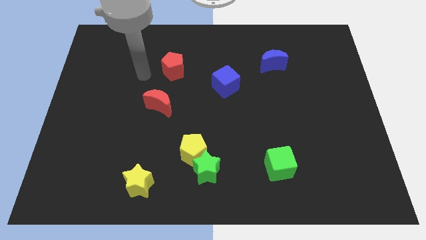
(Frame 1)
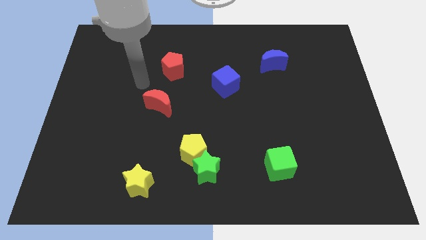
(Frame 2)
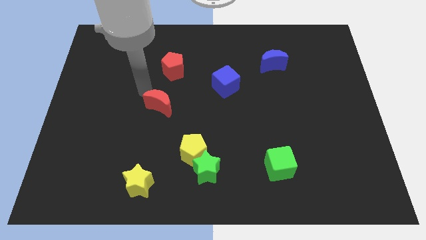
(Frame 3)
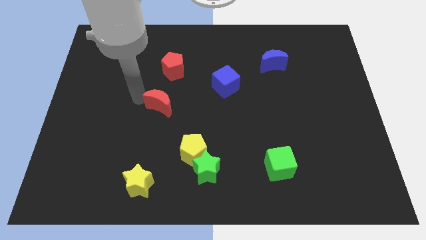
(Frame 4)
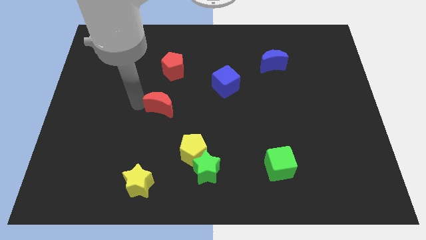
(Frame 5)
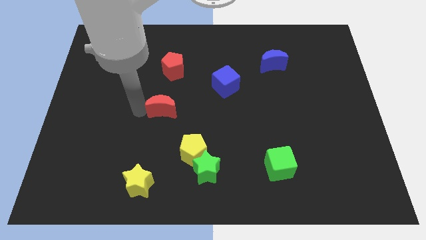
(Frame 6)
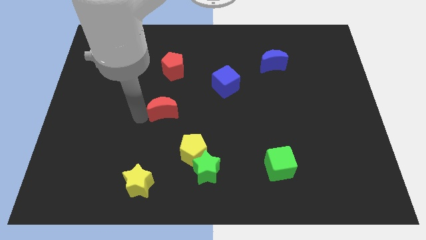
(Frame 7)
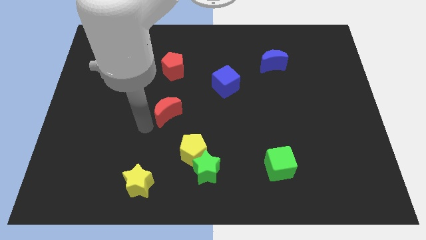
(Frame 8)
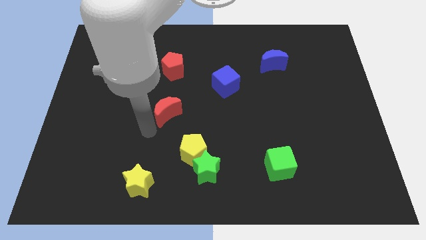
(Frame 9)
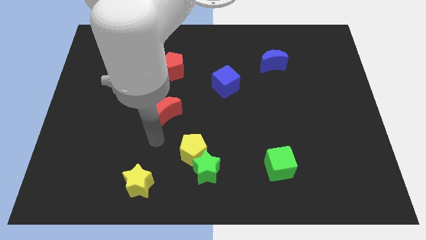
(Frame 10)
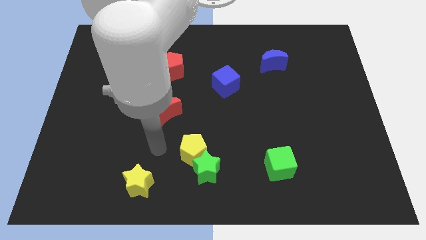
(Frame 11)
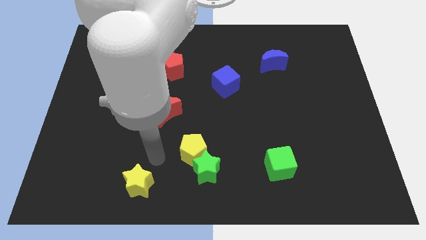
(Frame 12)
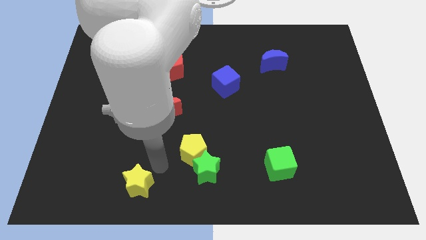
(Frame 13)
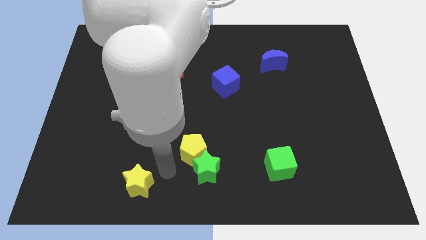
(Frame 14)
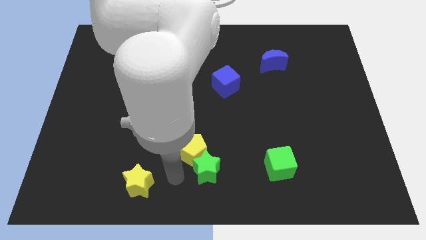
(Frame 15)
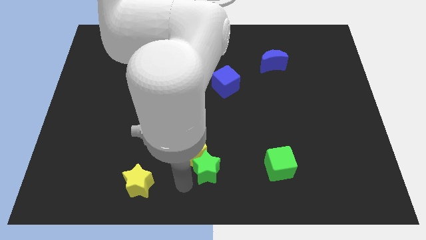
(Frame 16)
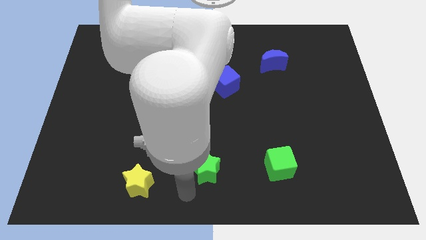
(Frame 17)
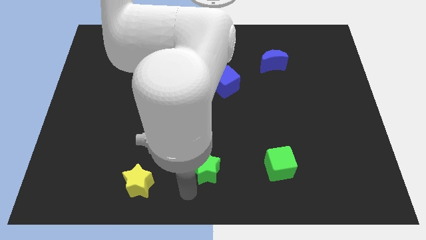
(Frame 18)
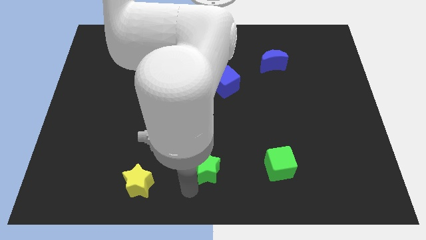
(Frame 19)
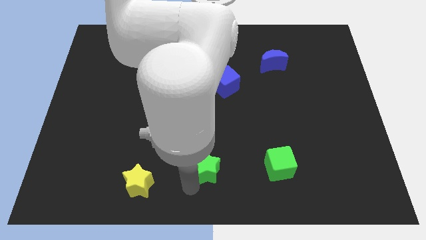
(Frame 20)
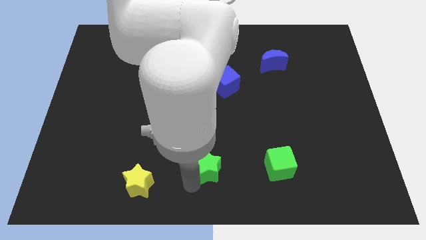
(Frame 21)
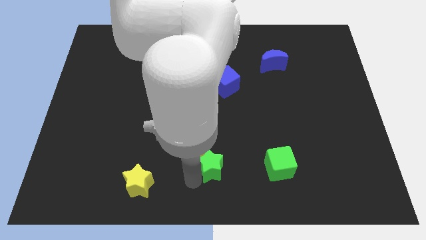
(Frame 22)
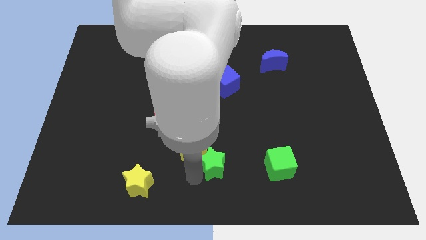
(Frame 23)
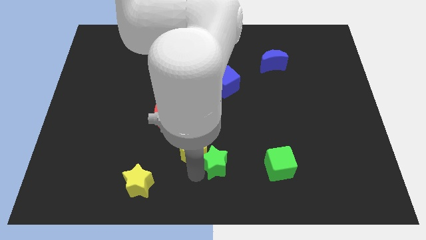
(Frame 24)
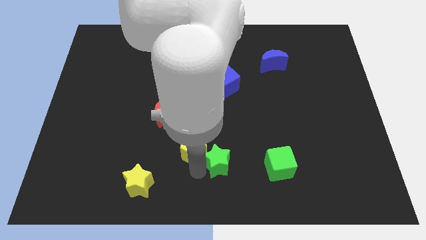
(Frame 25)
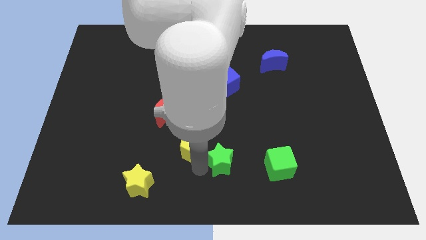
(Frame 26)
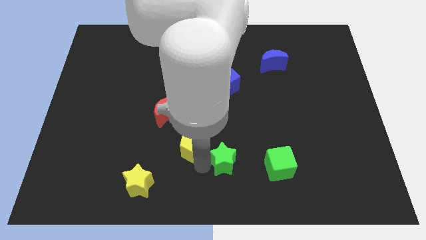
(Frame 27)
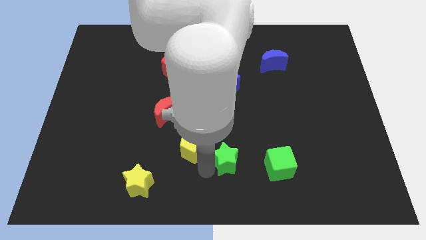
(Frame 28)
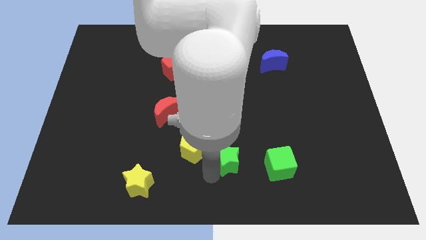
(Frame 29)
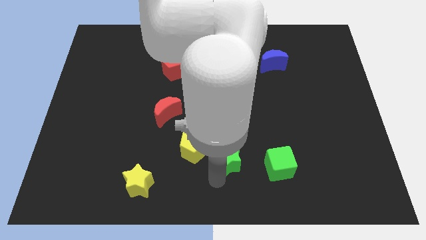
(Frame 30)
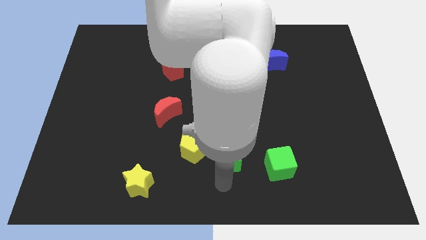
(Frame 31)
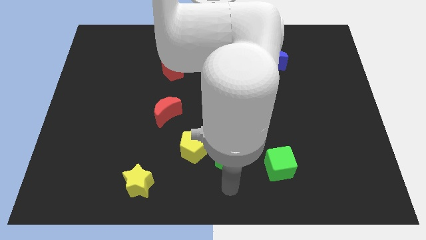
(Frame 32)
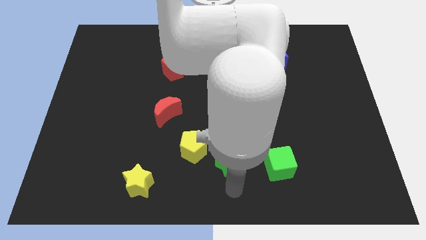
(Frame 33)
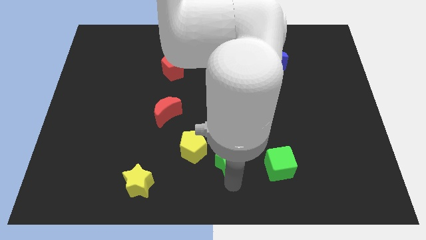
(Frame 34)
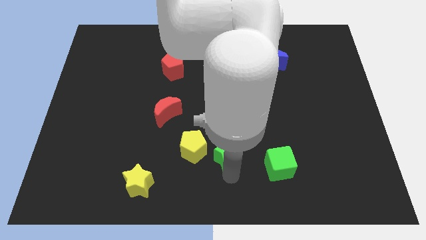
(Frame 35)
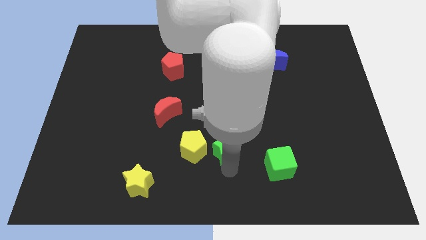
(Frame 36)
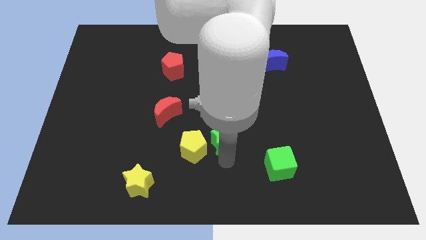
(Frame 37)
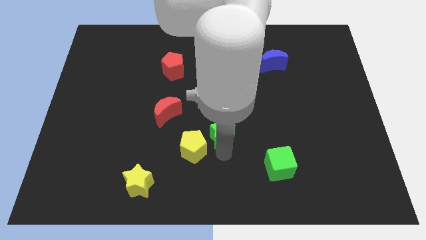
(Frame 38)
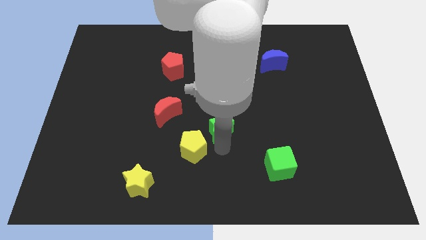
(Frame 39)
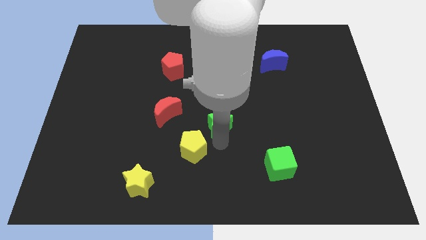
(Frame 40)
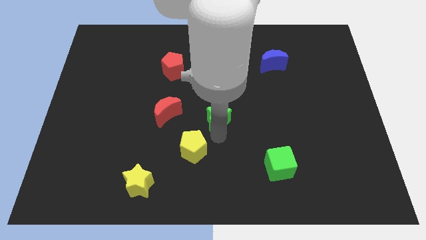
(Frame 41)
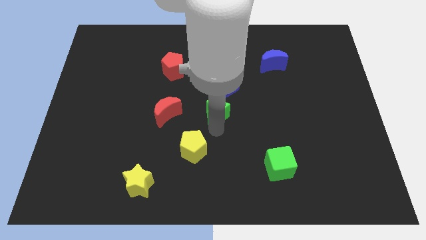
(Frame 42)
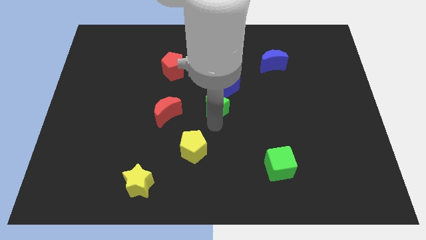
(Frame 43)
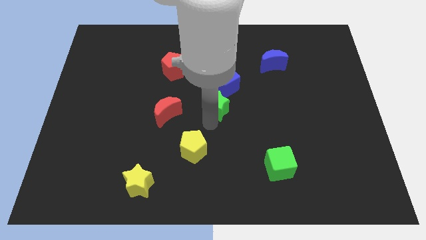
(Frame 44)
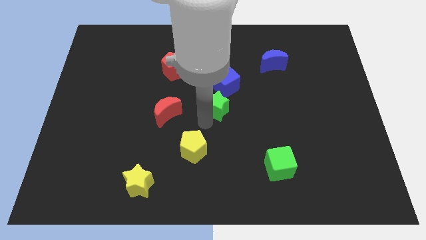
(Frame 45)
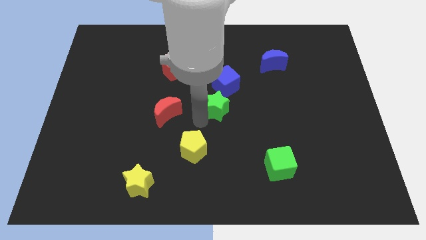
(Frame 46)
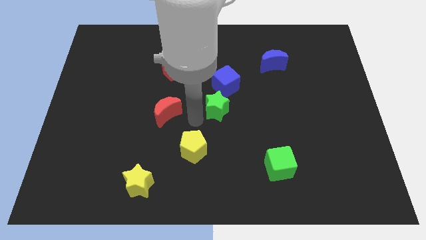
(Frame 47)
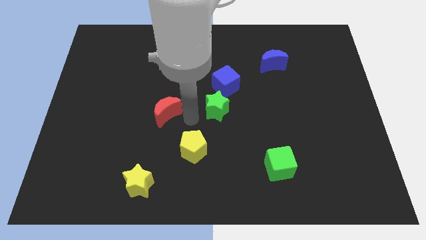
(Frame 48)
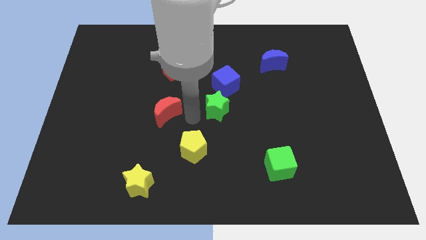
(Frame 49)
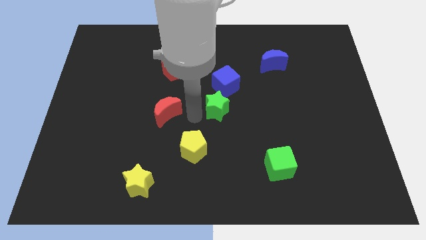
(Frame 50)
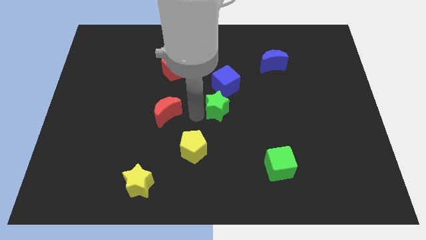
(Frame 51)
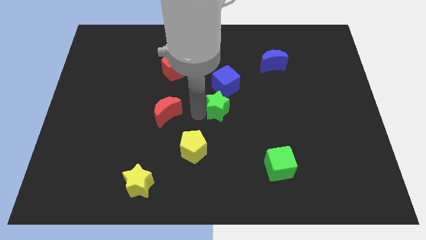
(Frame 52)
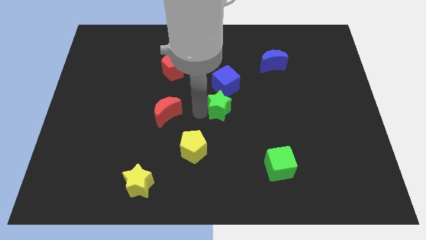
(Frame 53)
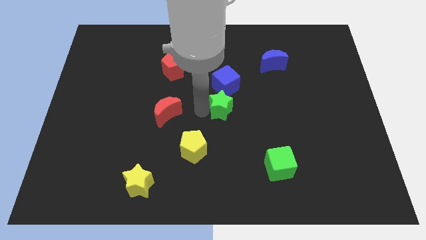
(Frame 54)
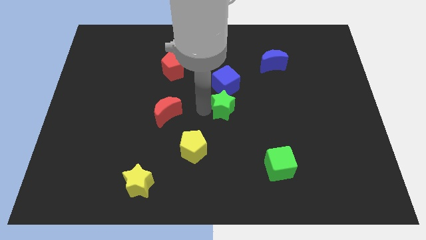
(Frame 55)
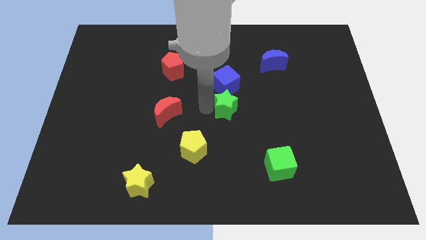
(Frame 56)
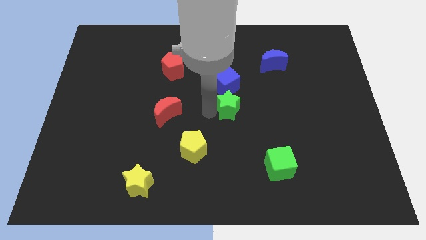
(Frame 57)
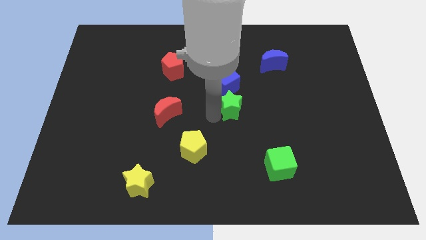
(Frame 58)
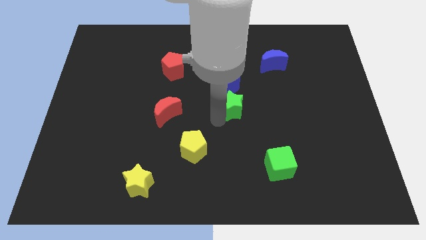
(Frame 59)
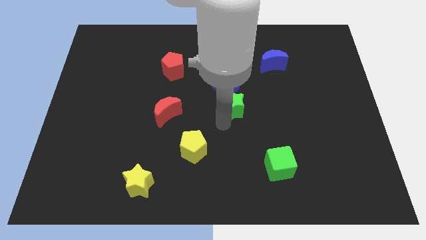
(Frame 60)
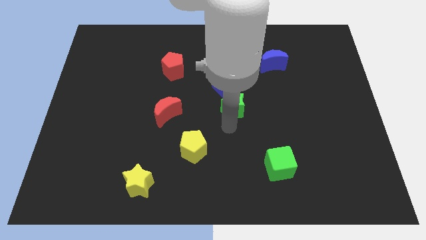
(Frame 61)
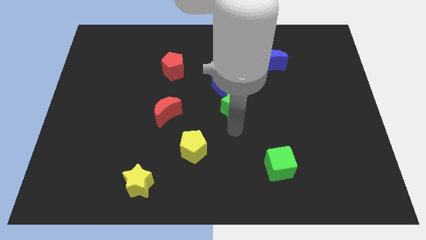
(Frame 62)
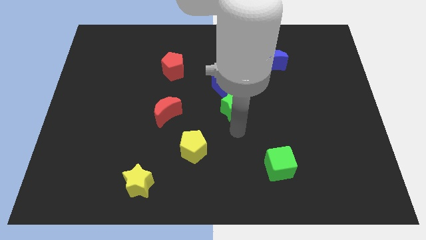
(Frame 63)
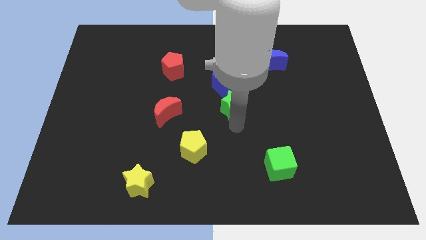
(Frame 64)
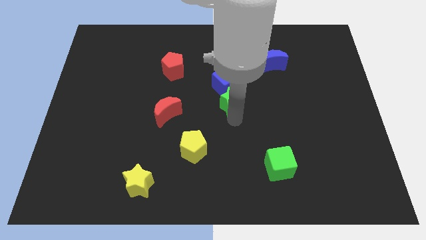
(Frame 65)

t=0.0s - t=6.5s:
push the green star close to the blue cube

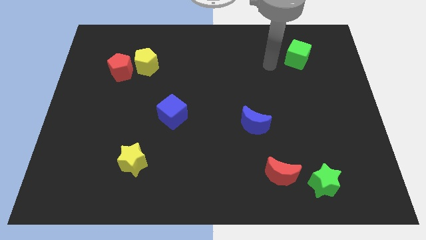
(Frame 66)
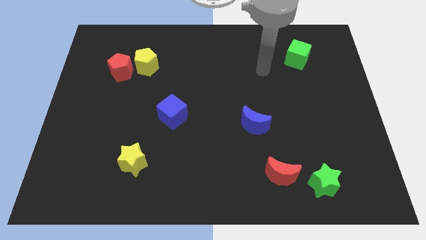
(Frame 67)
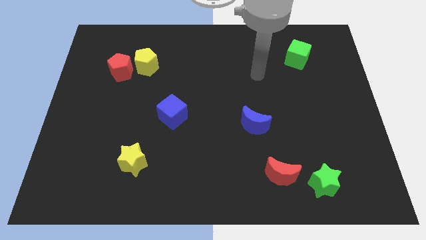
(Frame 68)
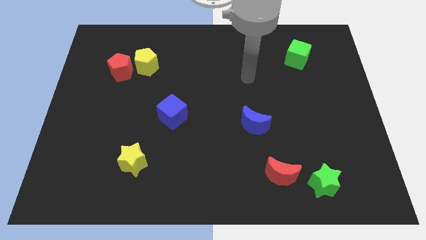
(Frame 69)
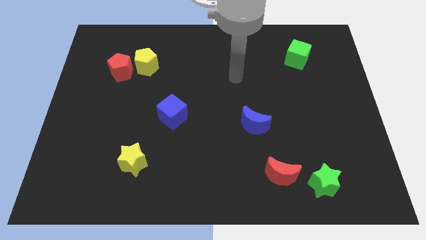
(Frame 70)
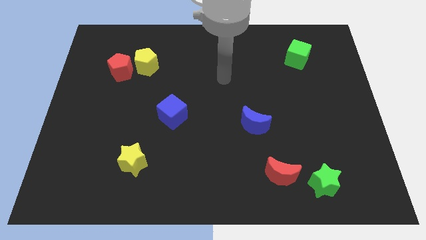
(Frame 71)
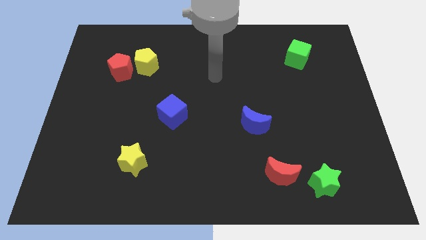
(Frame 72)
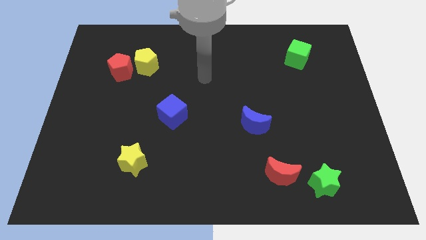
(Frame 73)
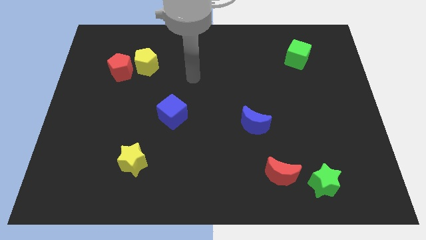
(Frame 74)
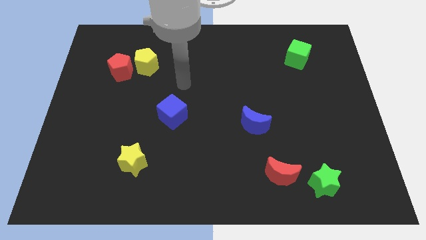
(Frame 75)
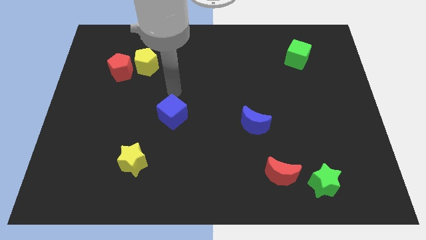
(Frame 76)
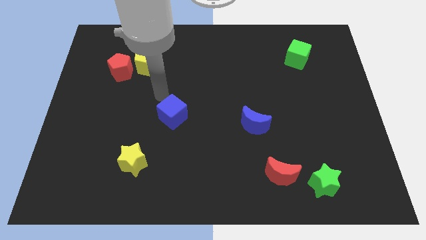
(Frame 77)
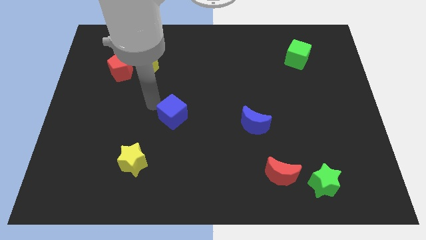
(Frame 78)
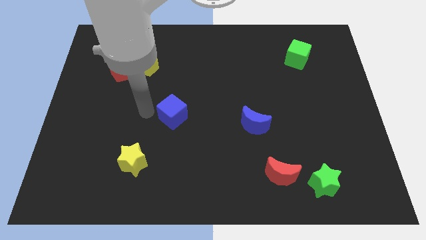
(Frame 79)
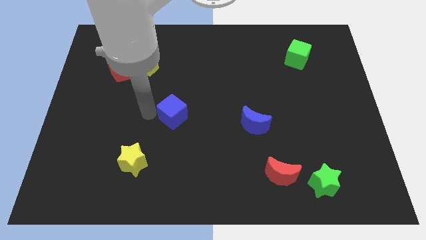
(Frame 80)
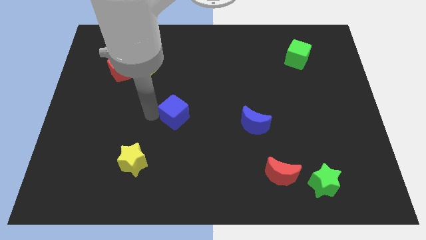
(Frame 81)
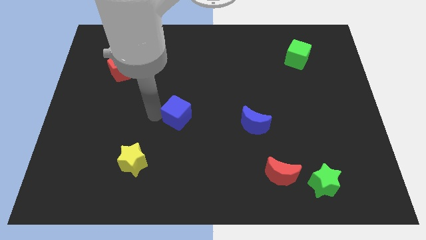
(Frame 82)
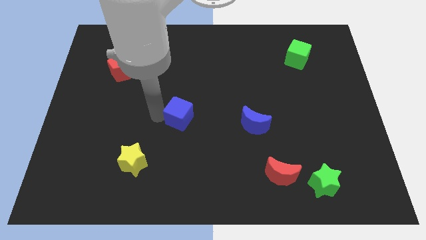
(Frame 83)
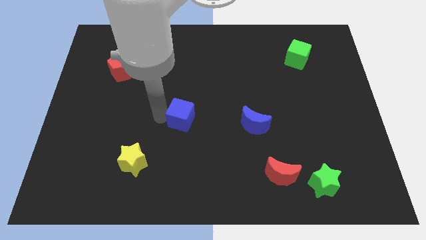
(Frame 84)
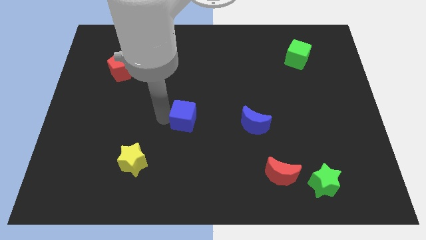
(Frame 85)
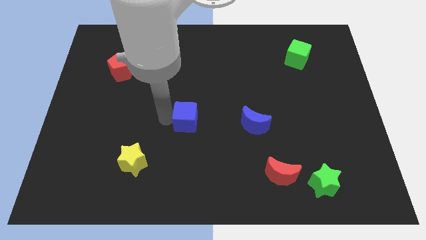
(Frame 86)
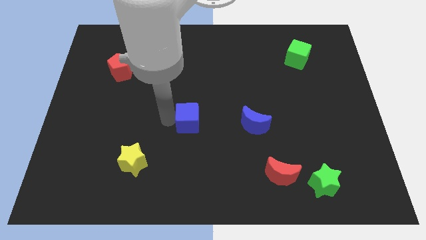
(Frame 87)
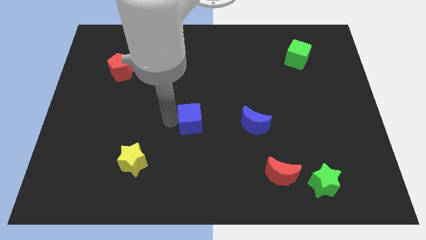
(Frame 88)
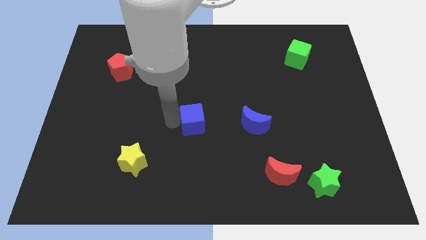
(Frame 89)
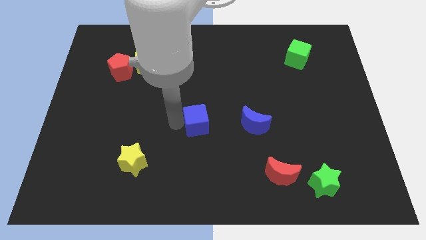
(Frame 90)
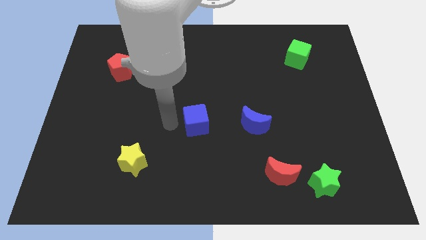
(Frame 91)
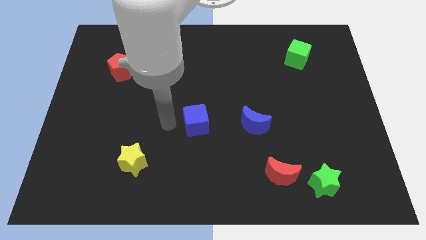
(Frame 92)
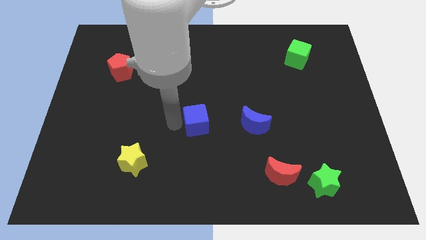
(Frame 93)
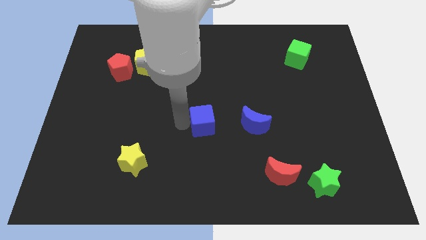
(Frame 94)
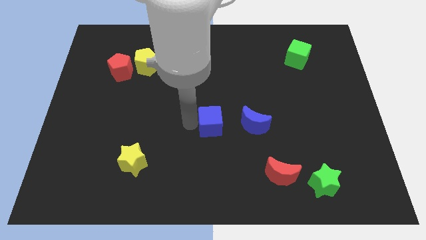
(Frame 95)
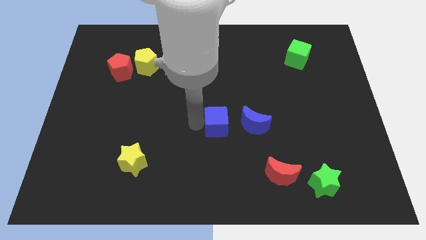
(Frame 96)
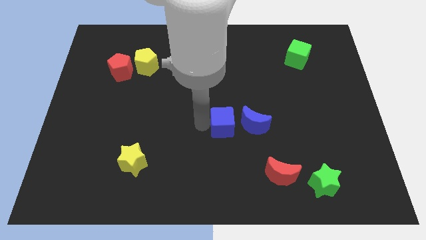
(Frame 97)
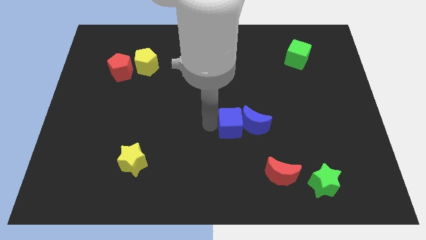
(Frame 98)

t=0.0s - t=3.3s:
push the blue cube close to the blue moon
